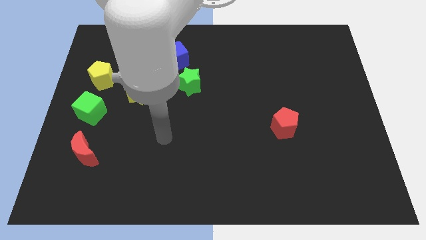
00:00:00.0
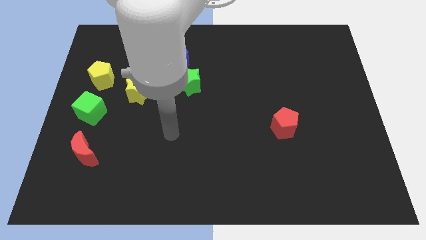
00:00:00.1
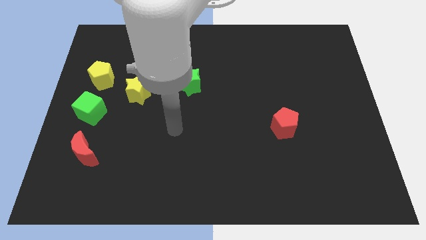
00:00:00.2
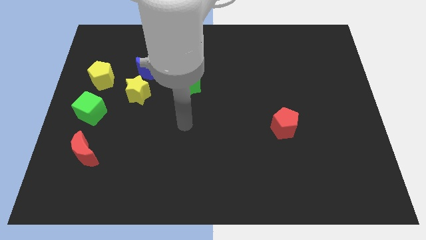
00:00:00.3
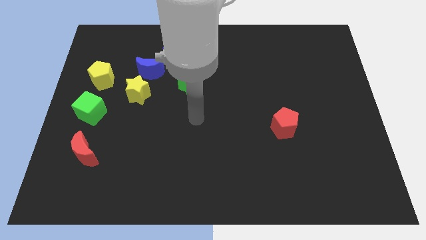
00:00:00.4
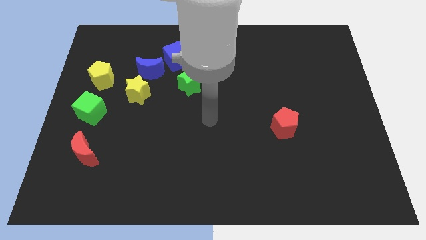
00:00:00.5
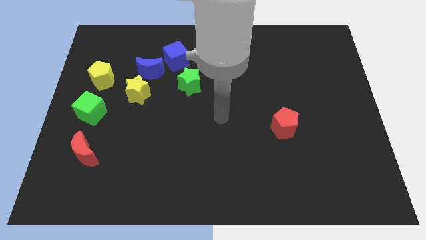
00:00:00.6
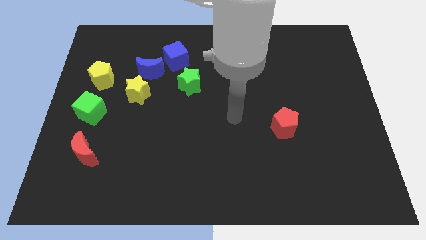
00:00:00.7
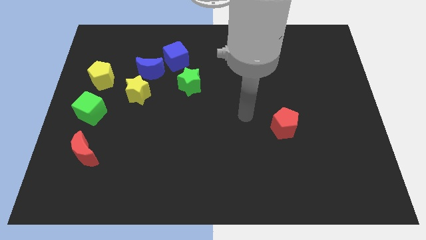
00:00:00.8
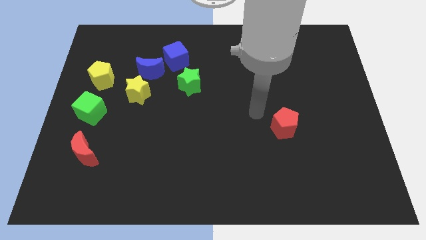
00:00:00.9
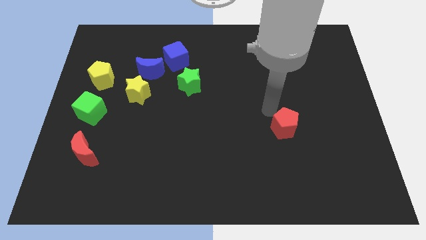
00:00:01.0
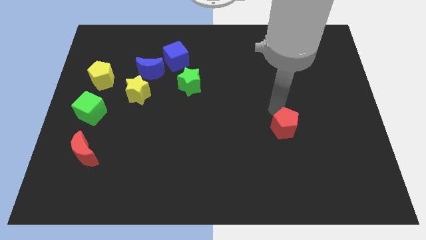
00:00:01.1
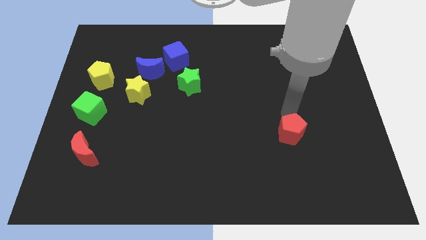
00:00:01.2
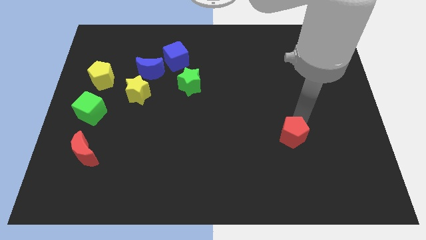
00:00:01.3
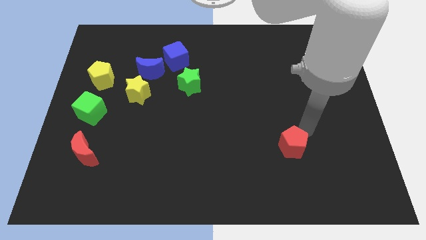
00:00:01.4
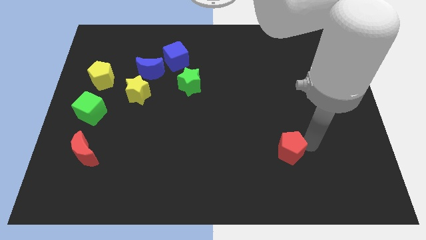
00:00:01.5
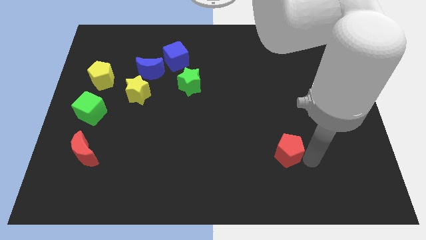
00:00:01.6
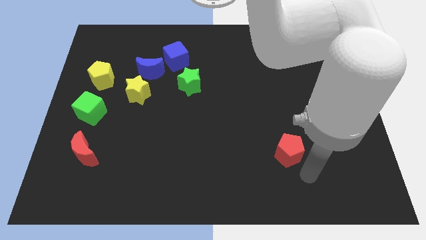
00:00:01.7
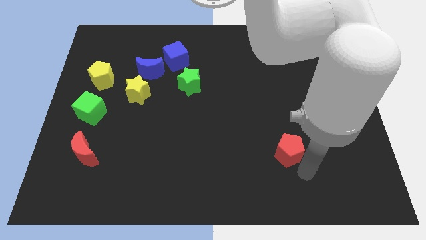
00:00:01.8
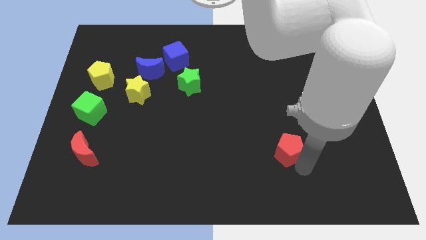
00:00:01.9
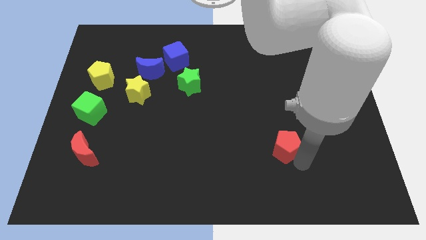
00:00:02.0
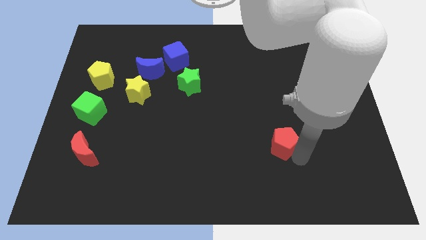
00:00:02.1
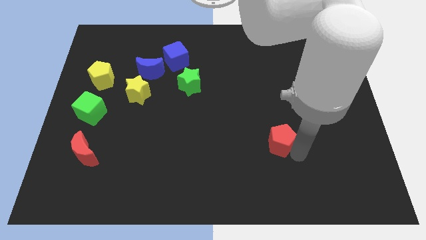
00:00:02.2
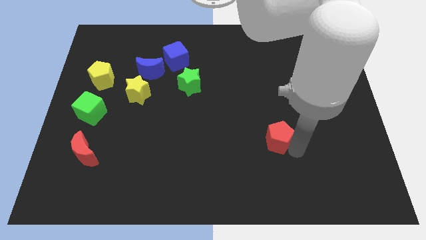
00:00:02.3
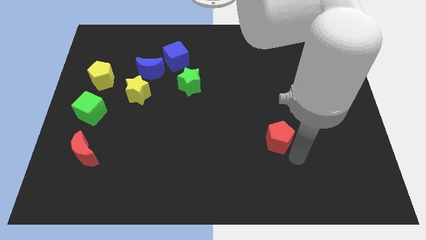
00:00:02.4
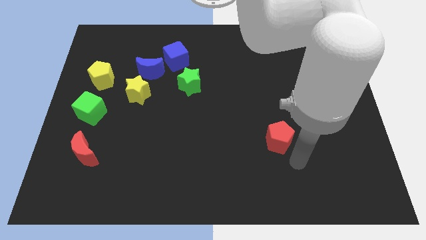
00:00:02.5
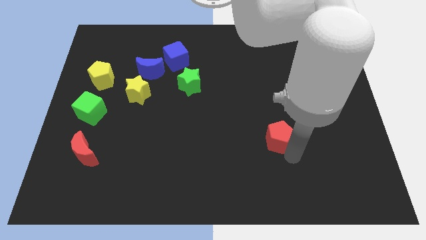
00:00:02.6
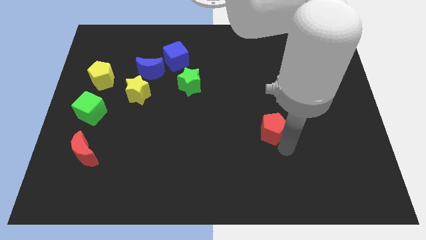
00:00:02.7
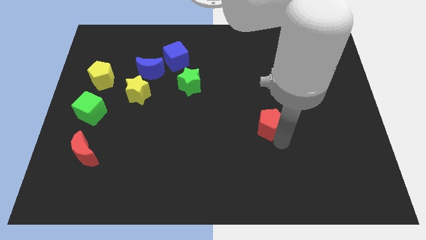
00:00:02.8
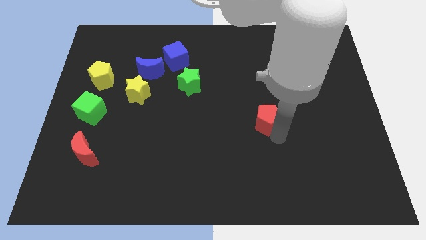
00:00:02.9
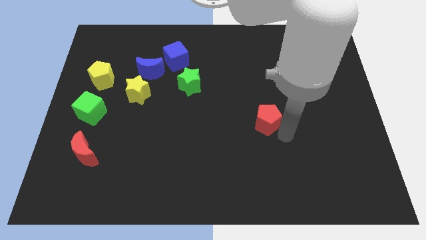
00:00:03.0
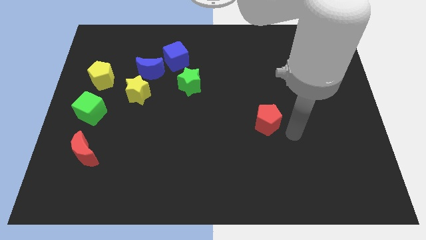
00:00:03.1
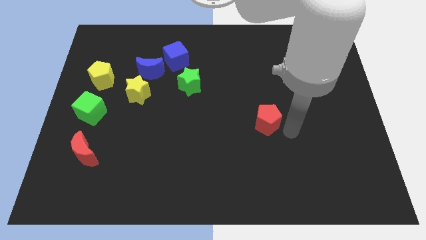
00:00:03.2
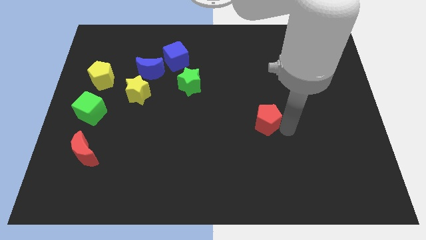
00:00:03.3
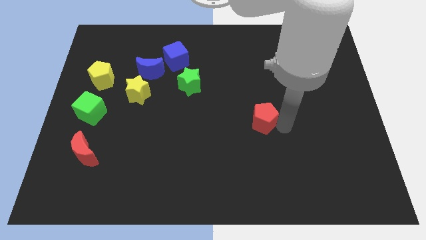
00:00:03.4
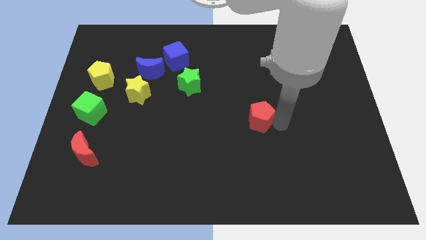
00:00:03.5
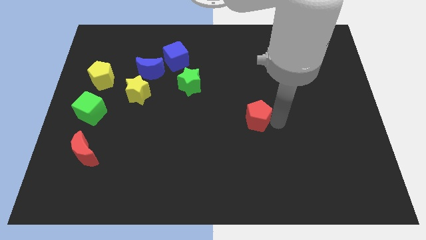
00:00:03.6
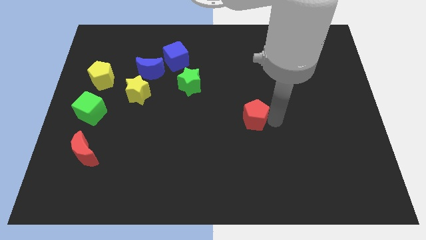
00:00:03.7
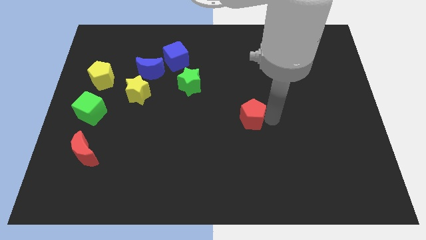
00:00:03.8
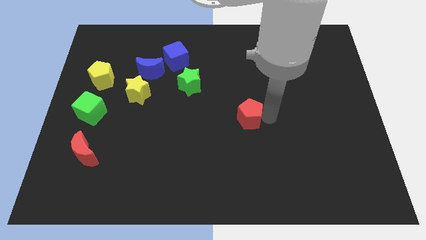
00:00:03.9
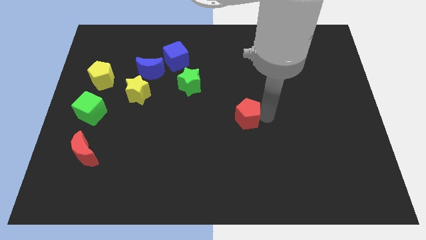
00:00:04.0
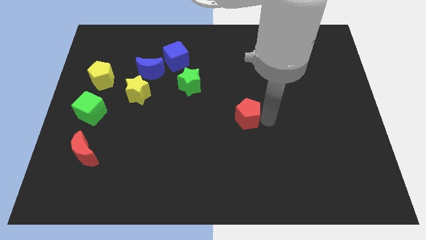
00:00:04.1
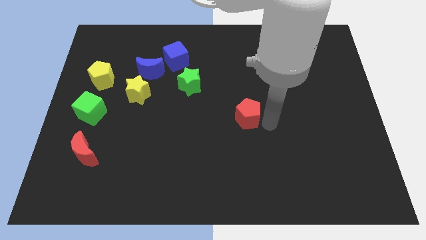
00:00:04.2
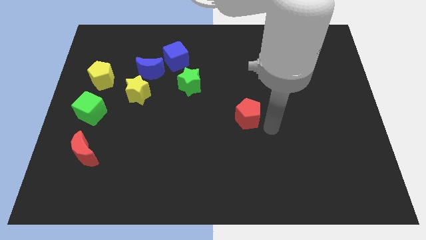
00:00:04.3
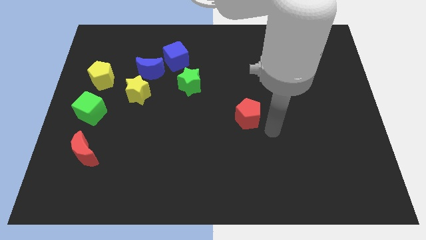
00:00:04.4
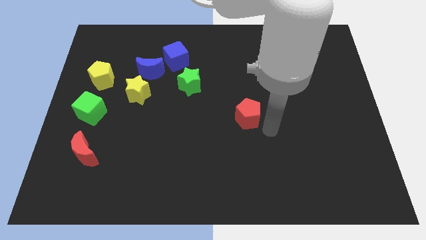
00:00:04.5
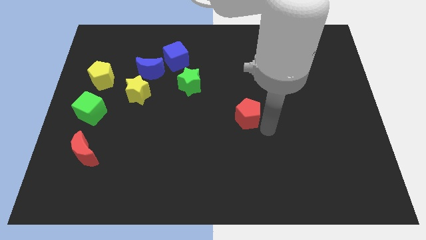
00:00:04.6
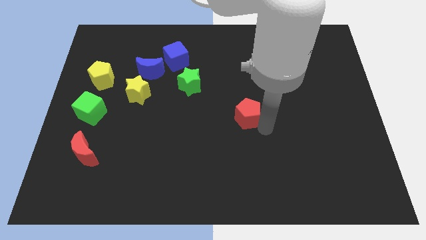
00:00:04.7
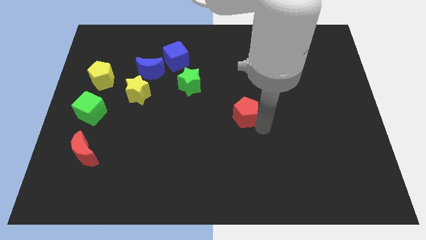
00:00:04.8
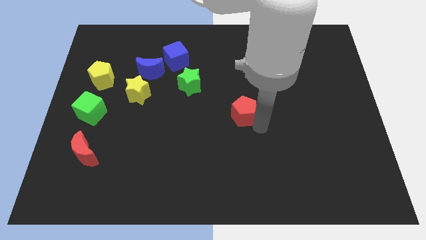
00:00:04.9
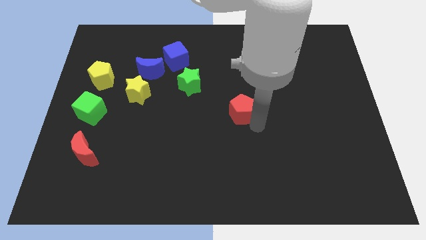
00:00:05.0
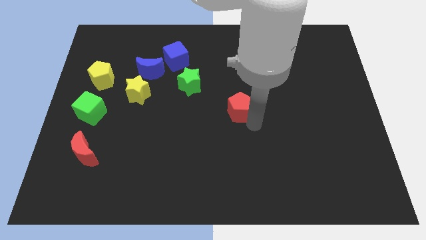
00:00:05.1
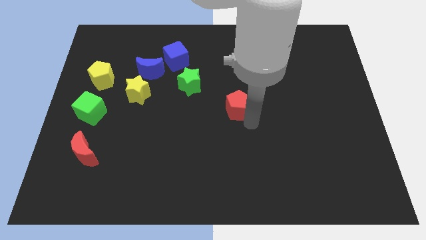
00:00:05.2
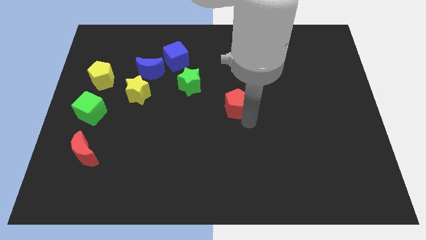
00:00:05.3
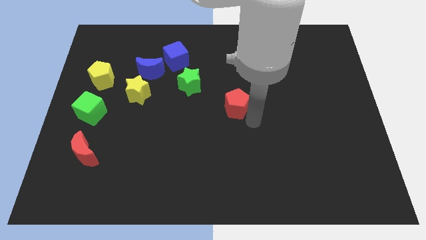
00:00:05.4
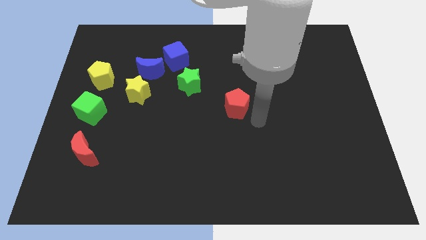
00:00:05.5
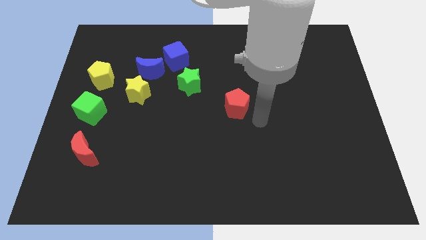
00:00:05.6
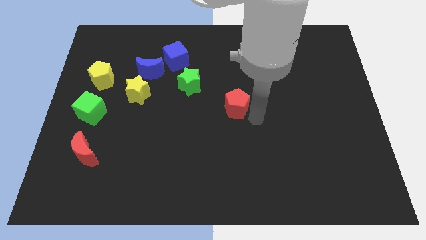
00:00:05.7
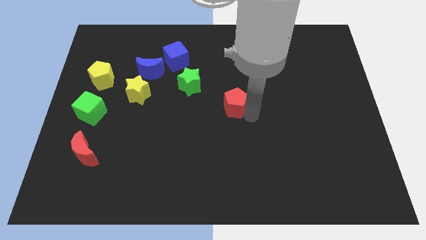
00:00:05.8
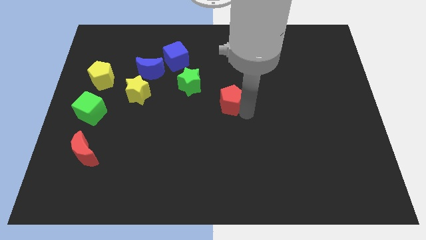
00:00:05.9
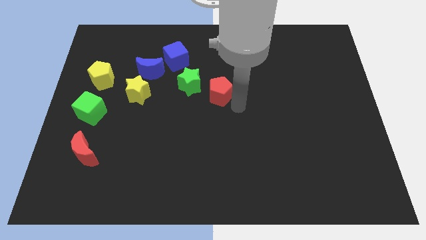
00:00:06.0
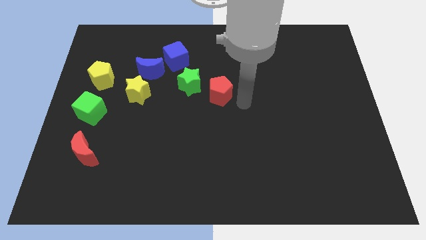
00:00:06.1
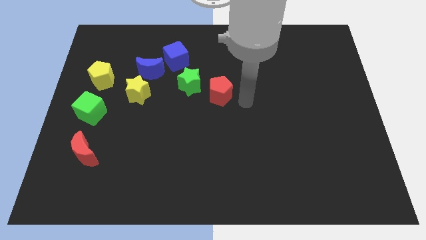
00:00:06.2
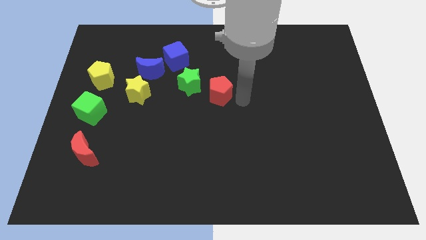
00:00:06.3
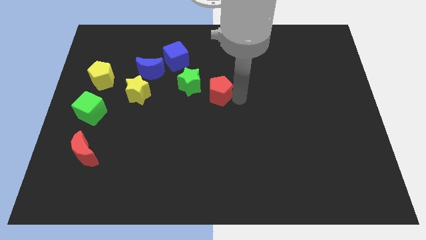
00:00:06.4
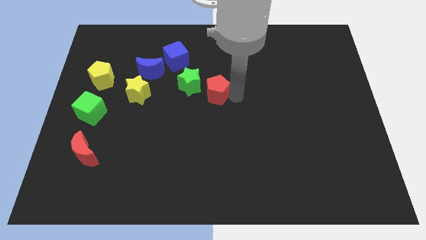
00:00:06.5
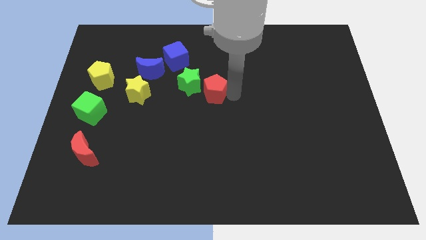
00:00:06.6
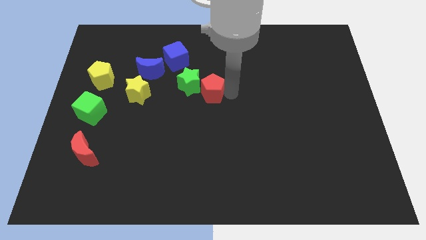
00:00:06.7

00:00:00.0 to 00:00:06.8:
push the red pentagon towards the green star
